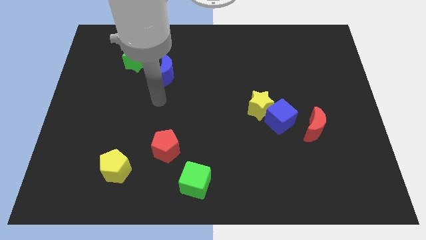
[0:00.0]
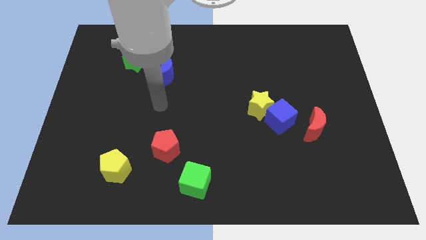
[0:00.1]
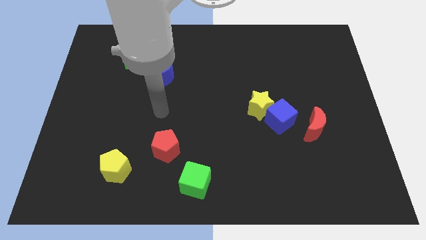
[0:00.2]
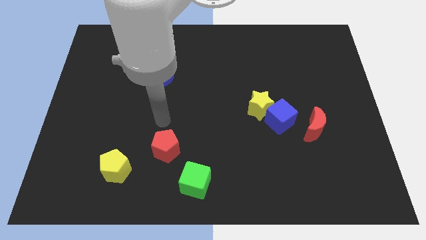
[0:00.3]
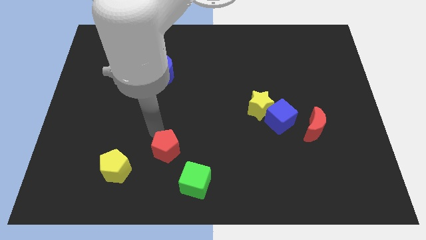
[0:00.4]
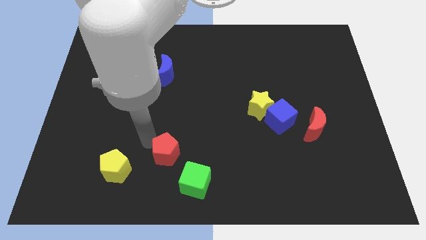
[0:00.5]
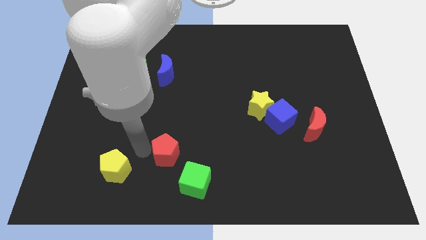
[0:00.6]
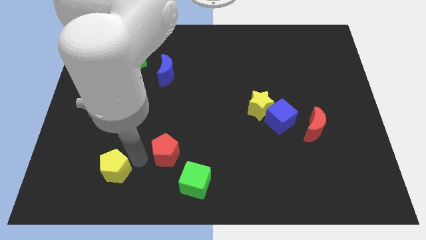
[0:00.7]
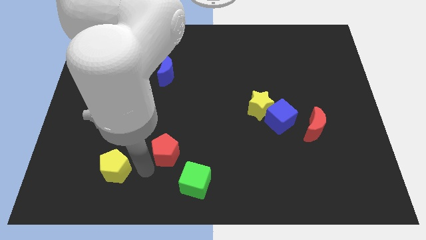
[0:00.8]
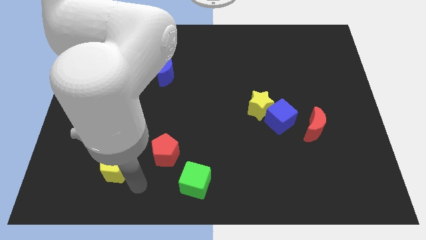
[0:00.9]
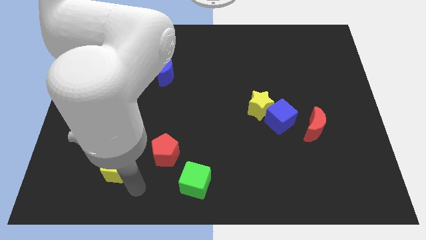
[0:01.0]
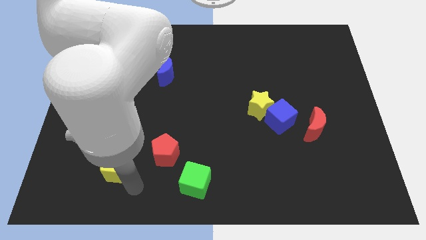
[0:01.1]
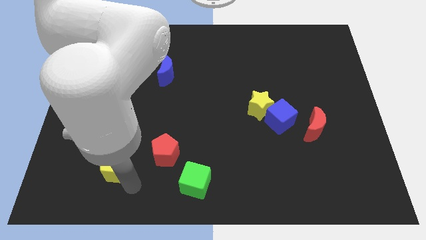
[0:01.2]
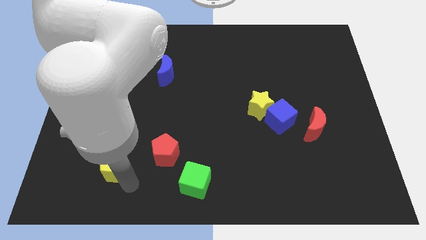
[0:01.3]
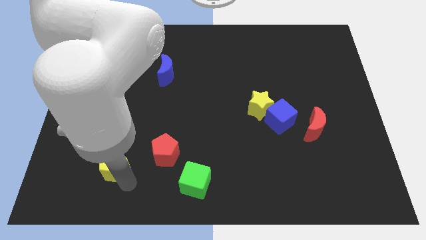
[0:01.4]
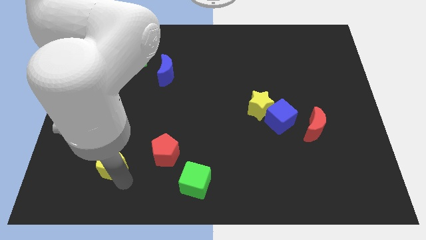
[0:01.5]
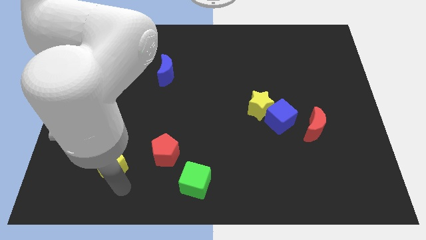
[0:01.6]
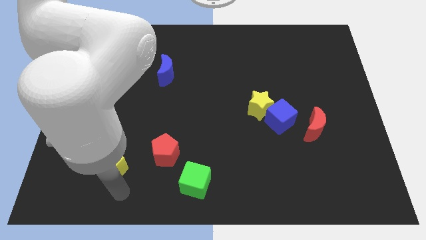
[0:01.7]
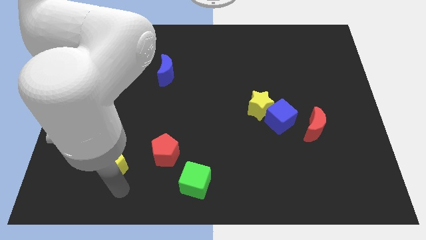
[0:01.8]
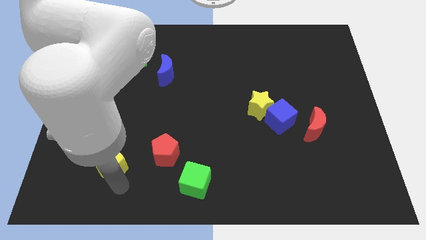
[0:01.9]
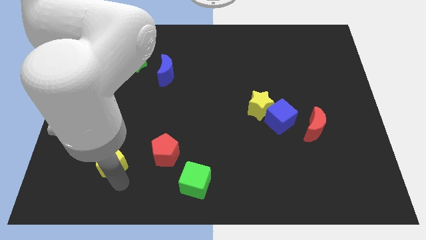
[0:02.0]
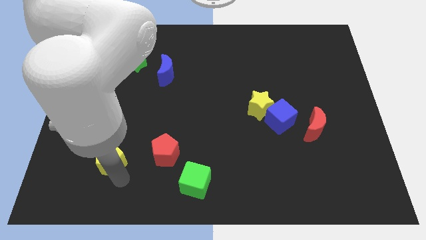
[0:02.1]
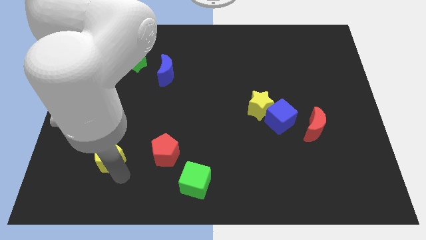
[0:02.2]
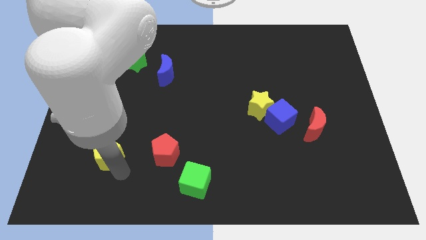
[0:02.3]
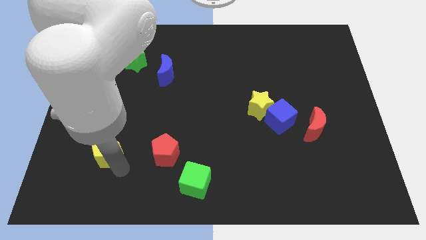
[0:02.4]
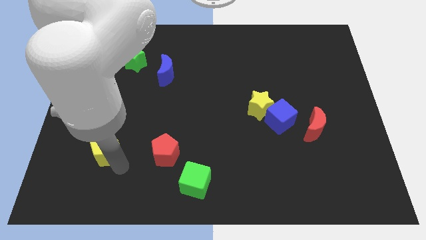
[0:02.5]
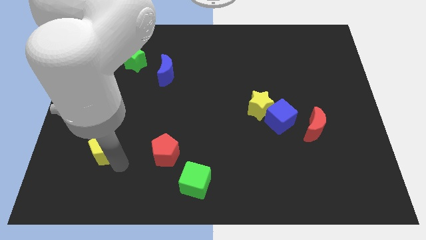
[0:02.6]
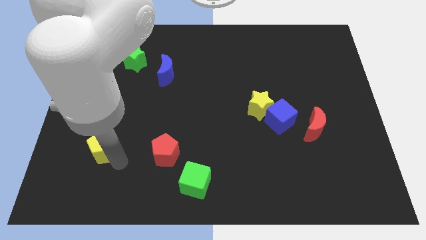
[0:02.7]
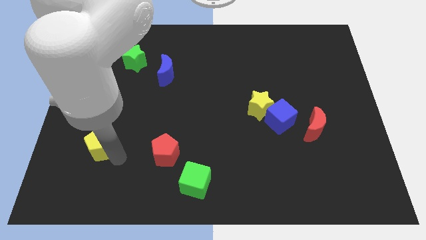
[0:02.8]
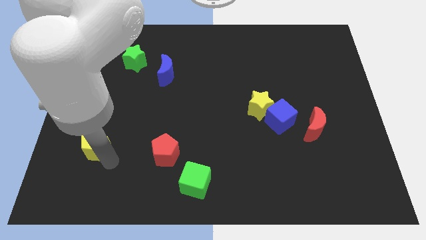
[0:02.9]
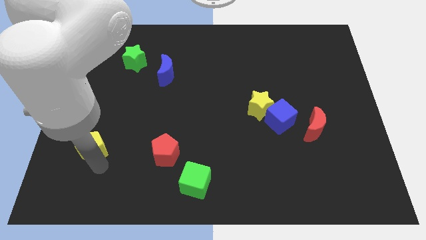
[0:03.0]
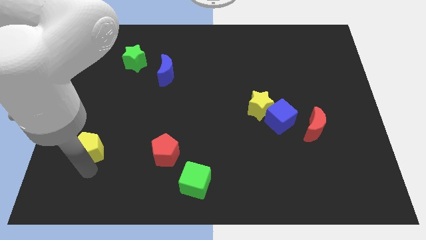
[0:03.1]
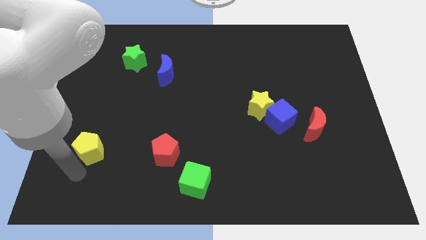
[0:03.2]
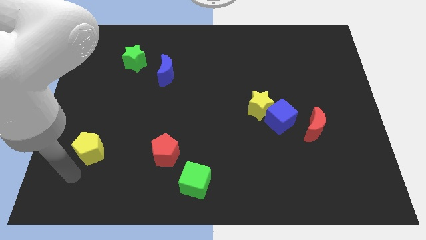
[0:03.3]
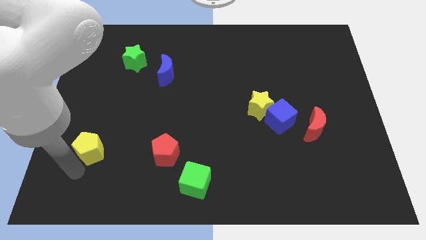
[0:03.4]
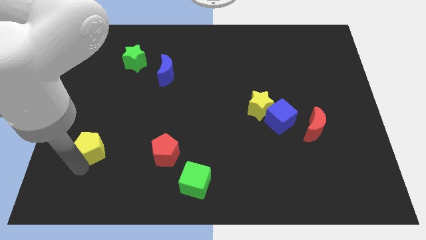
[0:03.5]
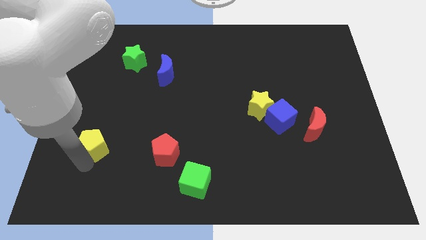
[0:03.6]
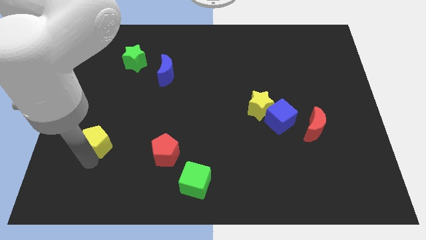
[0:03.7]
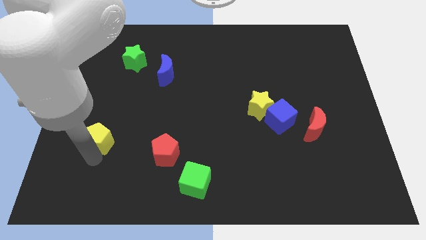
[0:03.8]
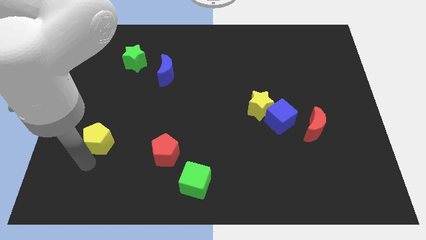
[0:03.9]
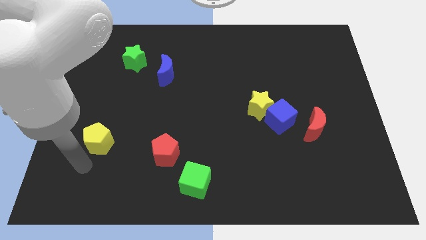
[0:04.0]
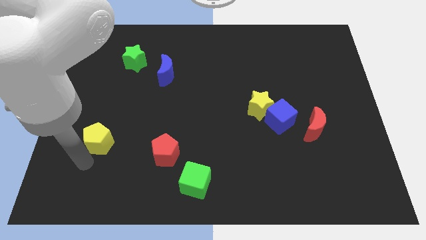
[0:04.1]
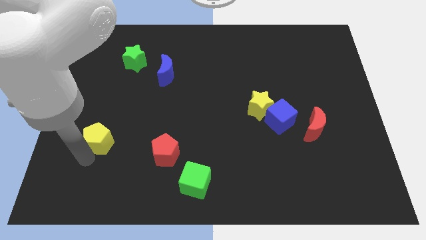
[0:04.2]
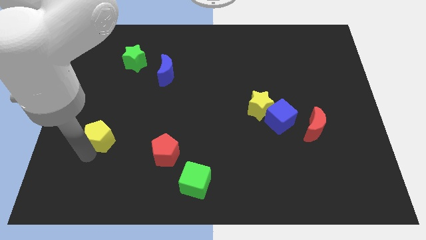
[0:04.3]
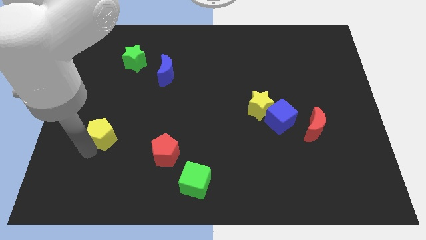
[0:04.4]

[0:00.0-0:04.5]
push the yellow pentagon a little up

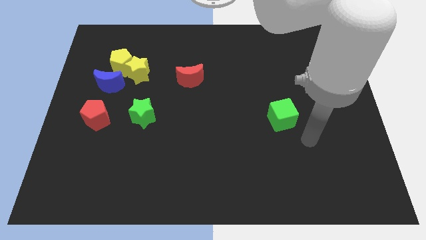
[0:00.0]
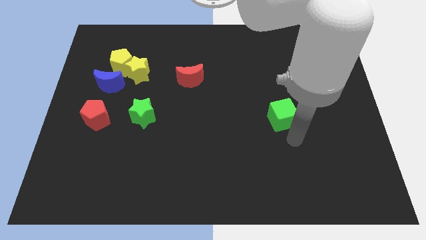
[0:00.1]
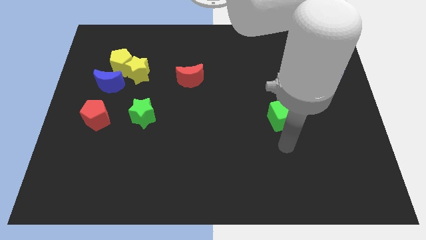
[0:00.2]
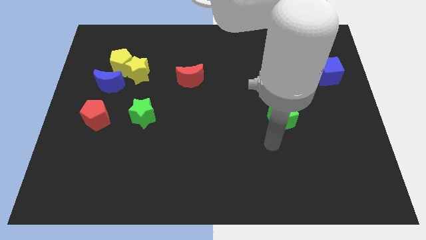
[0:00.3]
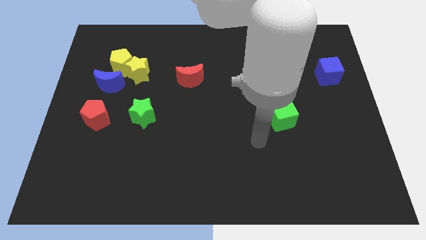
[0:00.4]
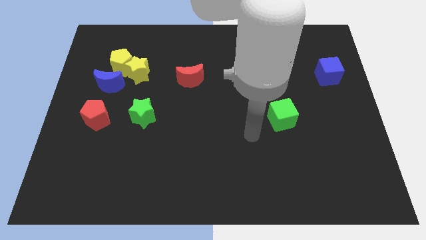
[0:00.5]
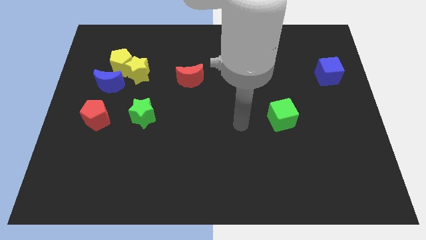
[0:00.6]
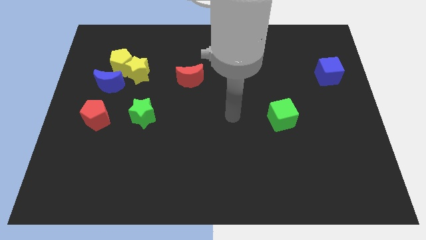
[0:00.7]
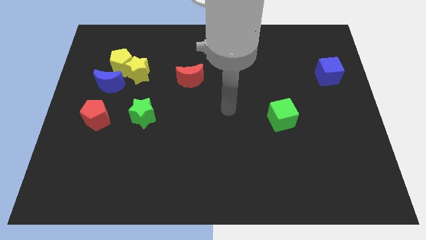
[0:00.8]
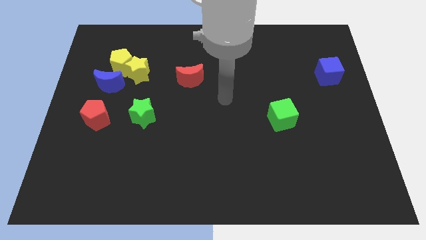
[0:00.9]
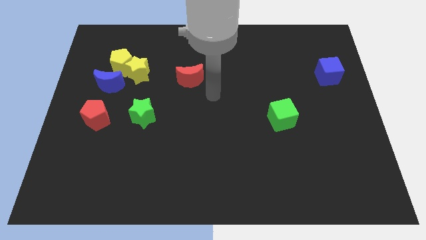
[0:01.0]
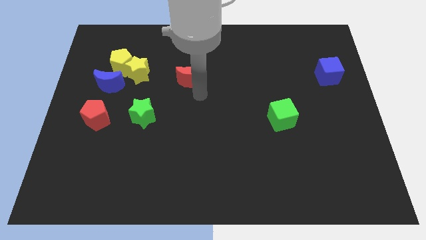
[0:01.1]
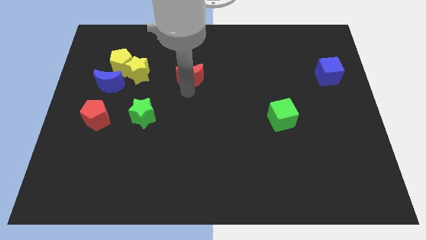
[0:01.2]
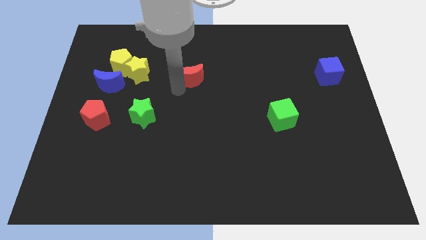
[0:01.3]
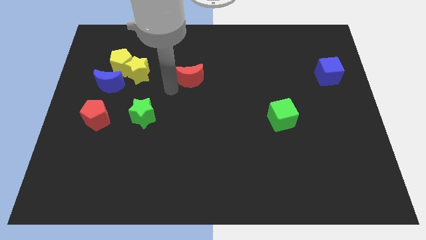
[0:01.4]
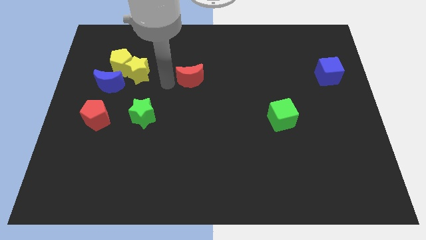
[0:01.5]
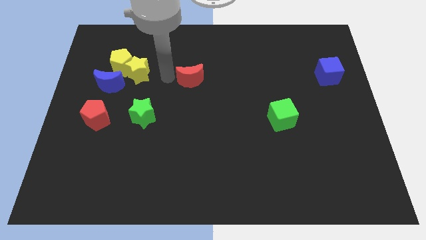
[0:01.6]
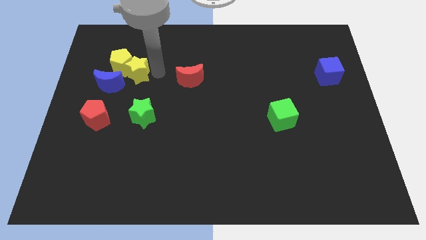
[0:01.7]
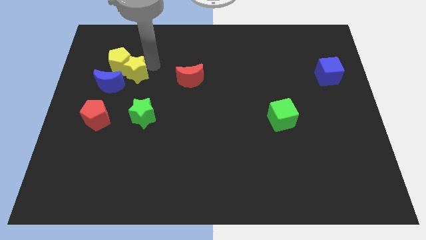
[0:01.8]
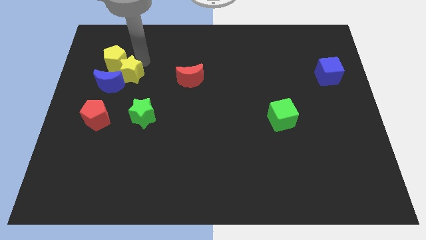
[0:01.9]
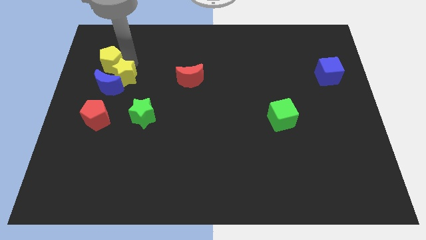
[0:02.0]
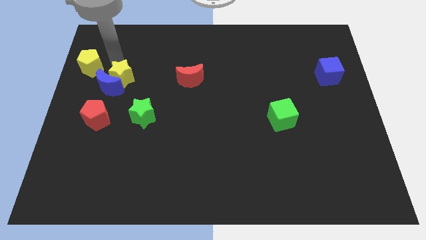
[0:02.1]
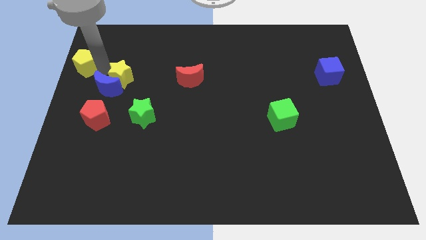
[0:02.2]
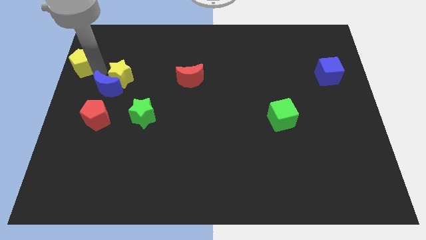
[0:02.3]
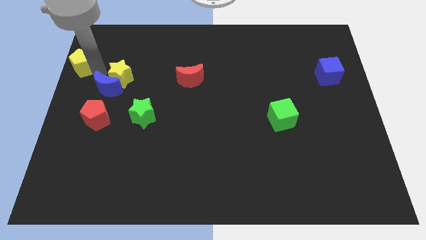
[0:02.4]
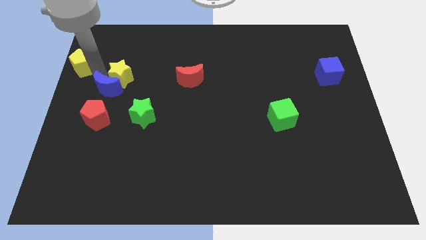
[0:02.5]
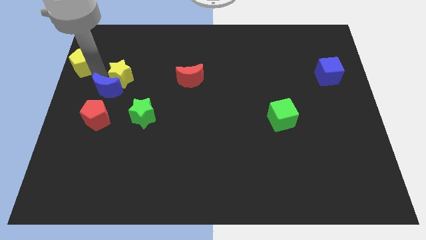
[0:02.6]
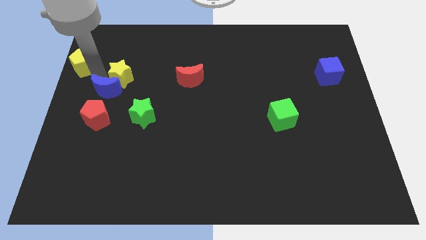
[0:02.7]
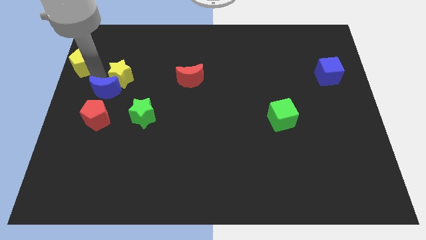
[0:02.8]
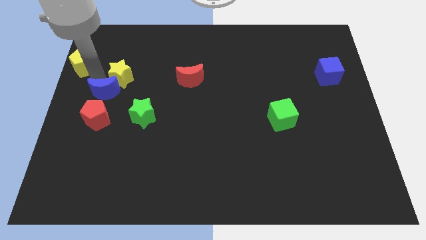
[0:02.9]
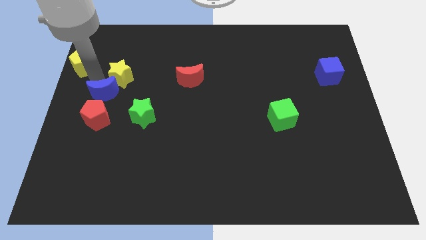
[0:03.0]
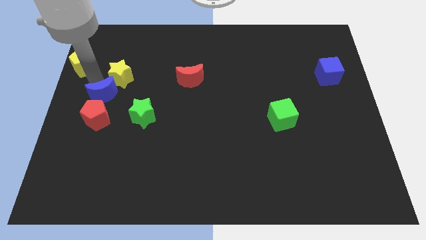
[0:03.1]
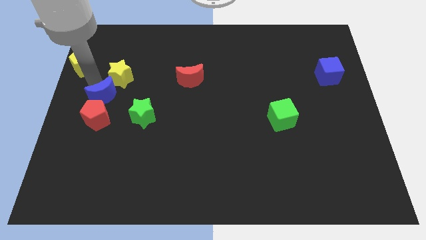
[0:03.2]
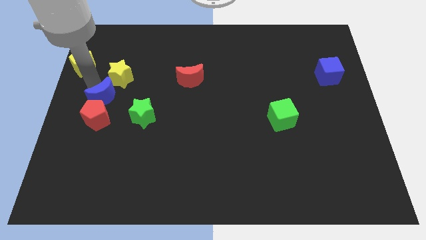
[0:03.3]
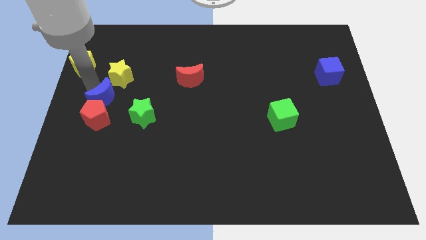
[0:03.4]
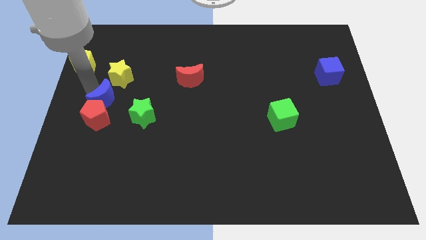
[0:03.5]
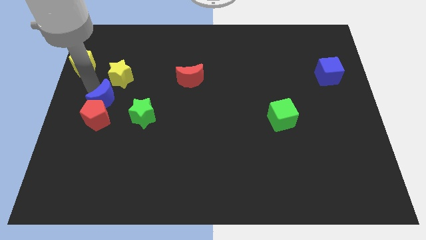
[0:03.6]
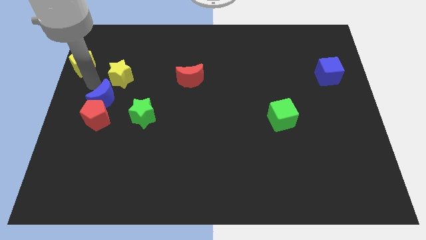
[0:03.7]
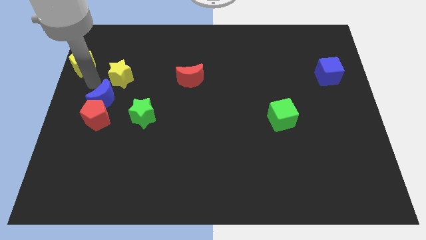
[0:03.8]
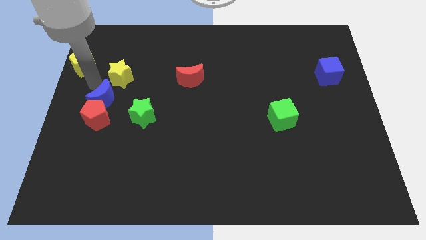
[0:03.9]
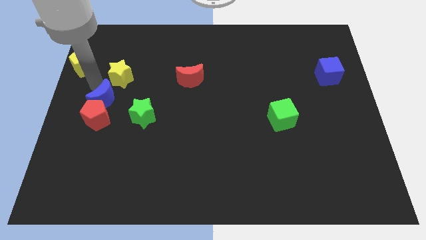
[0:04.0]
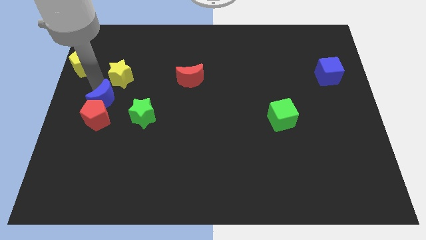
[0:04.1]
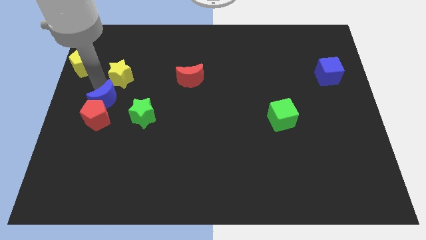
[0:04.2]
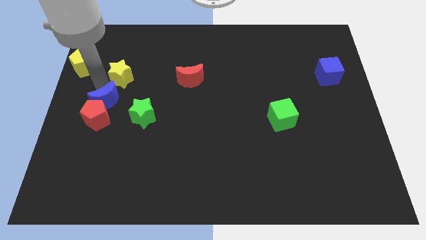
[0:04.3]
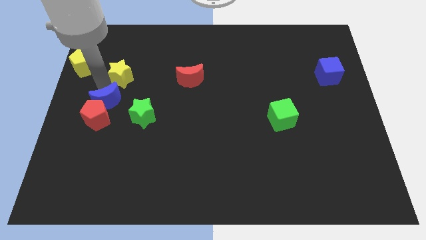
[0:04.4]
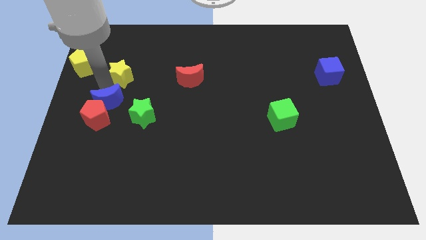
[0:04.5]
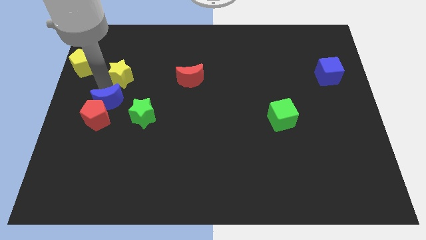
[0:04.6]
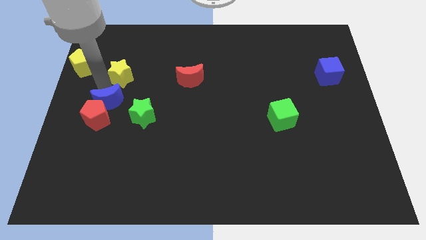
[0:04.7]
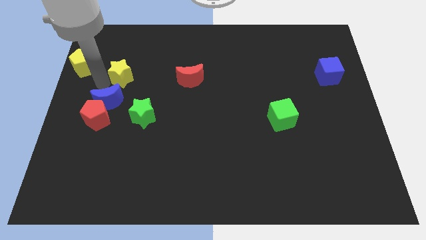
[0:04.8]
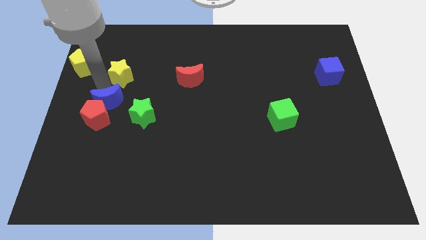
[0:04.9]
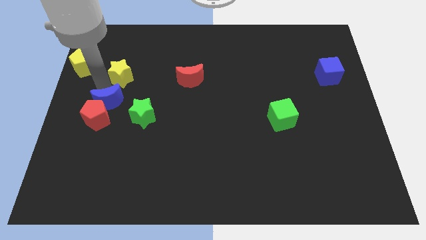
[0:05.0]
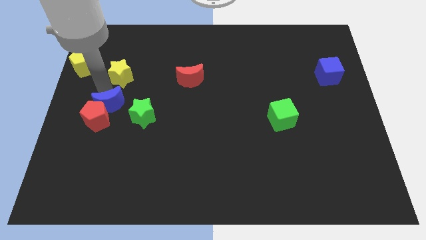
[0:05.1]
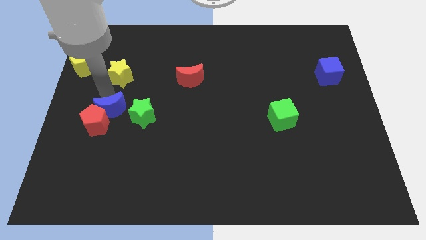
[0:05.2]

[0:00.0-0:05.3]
slide the blue moon down a little bit
